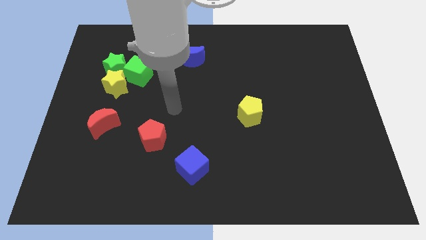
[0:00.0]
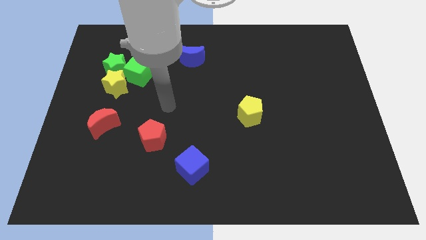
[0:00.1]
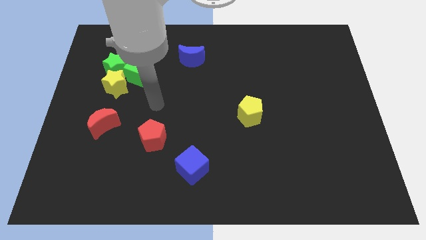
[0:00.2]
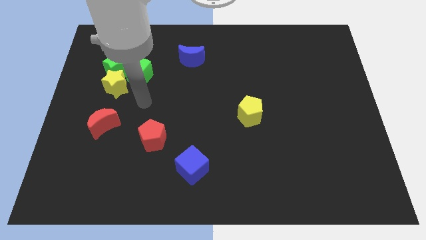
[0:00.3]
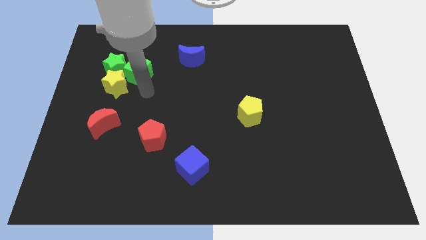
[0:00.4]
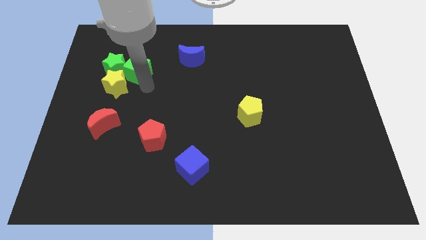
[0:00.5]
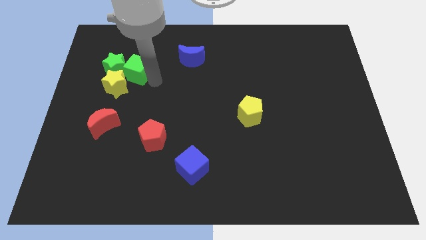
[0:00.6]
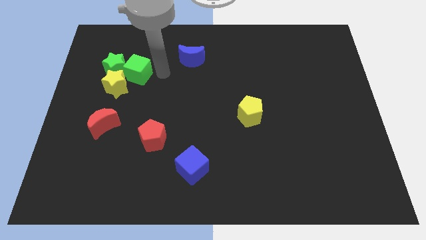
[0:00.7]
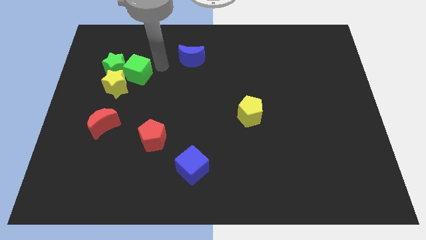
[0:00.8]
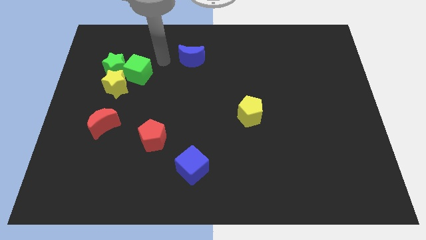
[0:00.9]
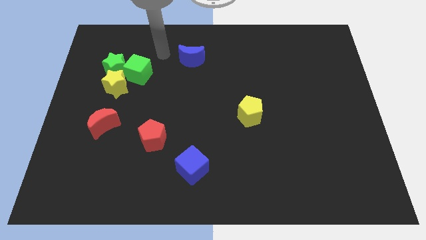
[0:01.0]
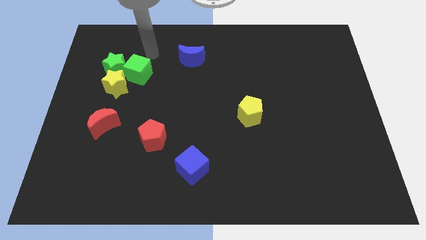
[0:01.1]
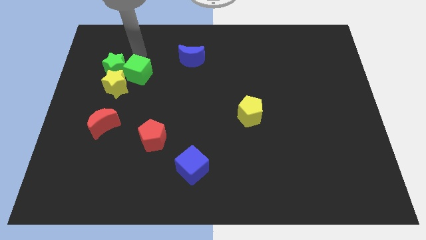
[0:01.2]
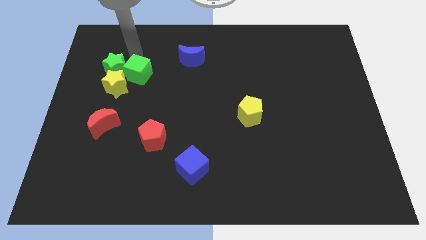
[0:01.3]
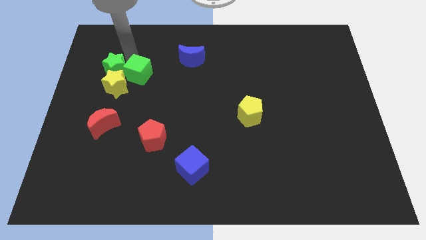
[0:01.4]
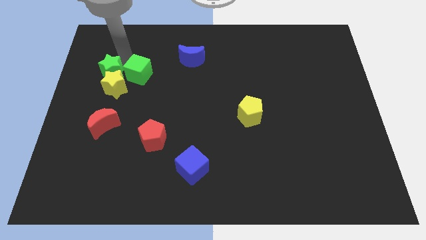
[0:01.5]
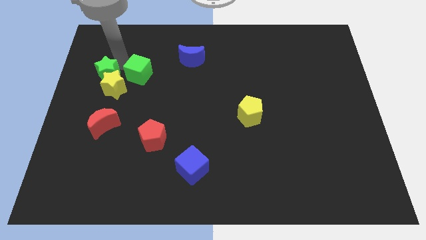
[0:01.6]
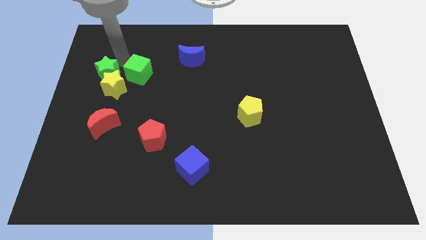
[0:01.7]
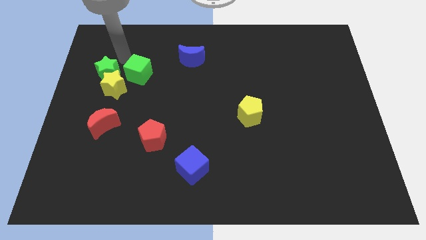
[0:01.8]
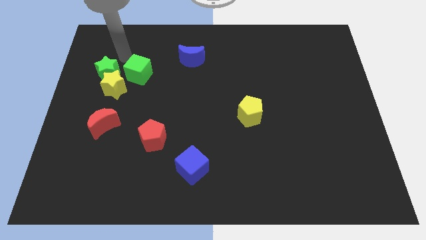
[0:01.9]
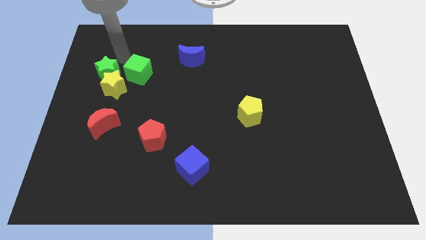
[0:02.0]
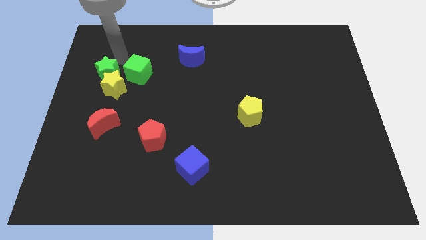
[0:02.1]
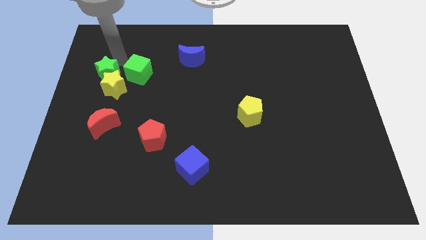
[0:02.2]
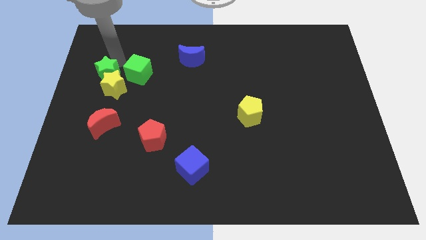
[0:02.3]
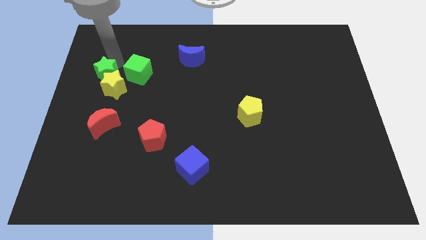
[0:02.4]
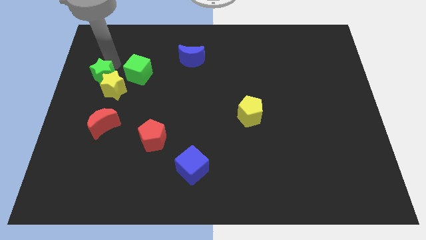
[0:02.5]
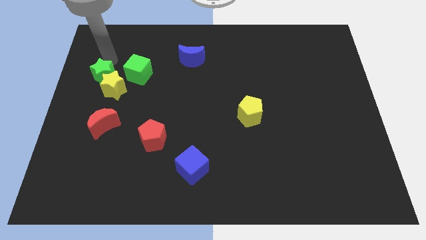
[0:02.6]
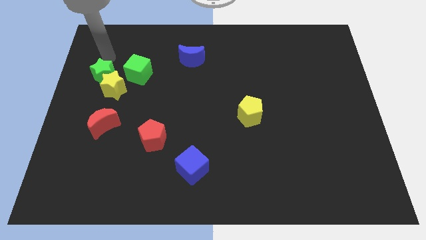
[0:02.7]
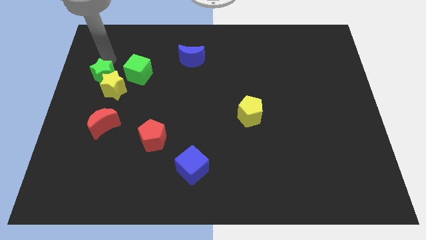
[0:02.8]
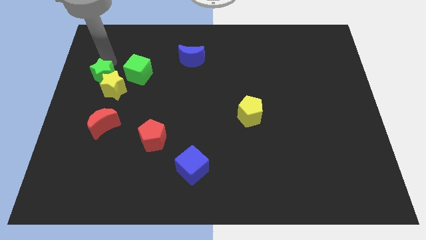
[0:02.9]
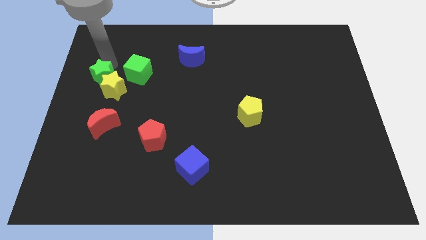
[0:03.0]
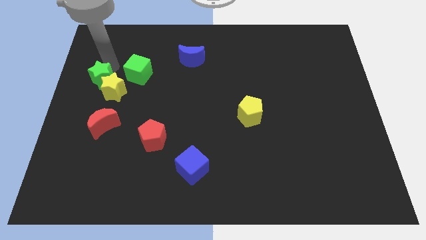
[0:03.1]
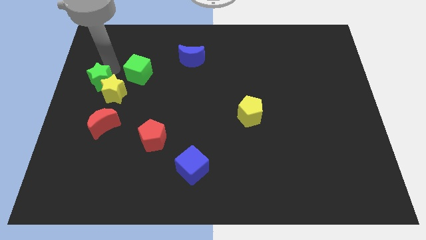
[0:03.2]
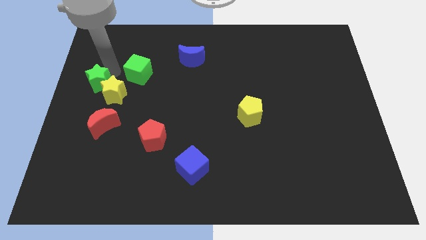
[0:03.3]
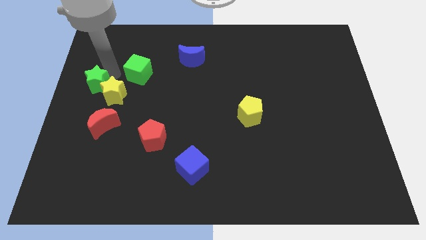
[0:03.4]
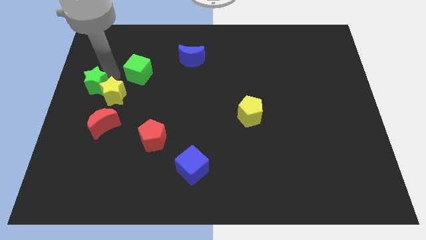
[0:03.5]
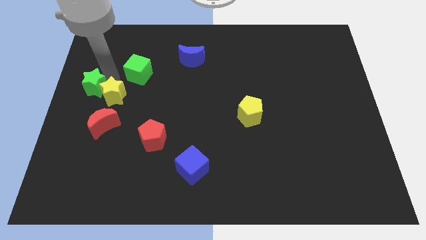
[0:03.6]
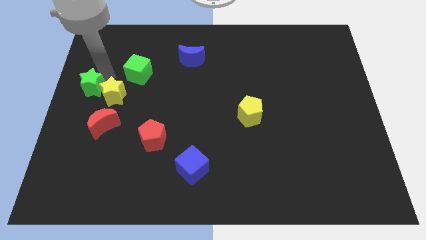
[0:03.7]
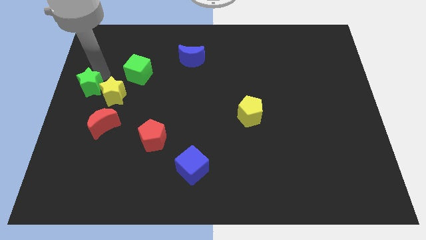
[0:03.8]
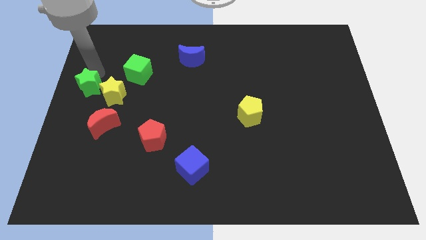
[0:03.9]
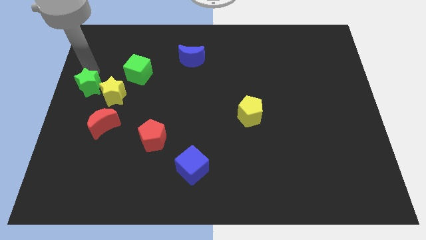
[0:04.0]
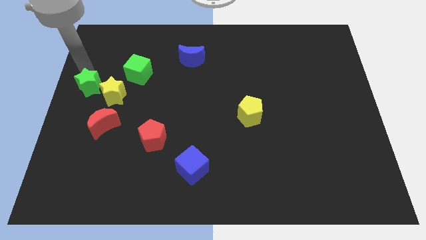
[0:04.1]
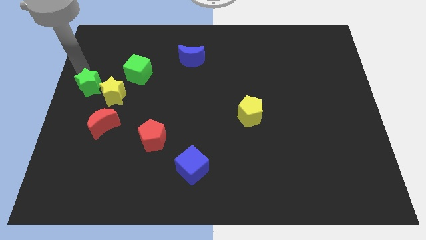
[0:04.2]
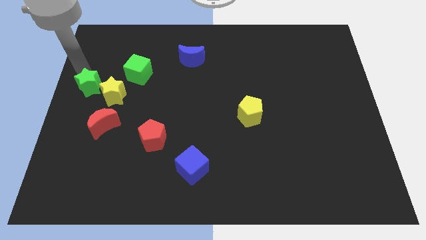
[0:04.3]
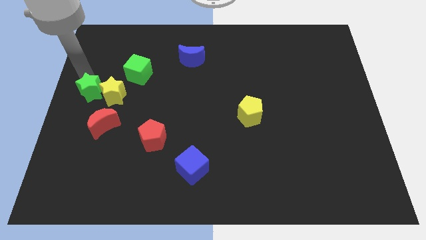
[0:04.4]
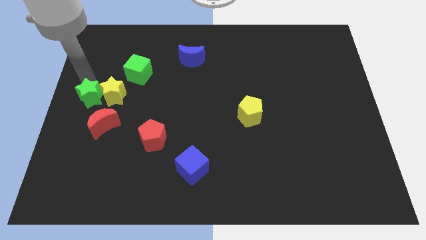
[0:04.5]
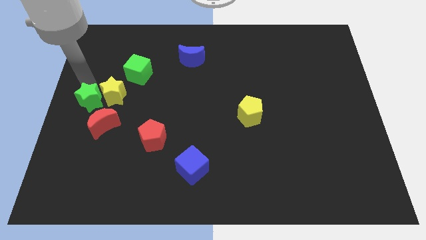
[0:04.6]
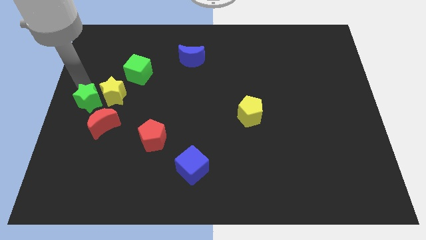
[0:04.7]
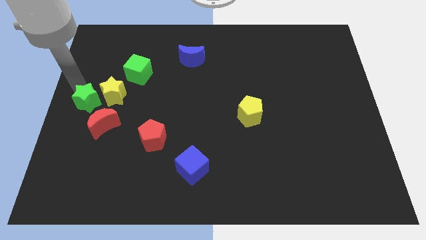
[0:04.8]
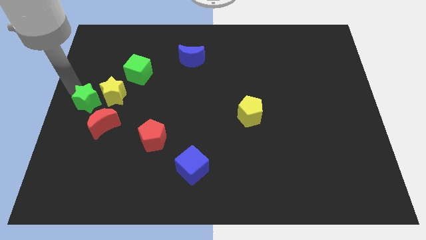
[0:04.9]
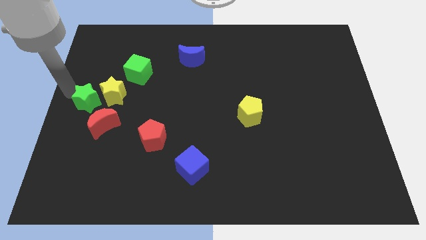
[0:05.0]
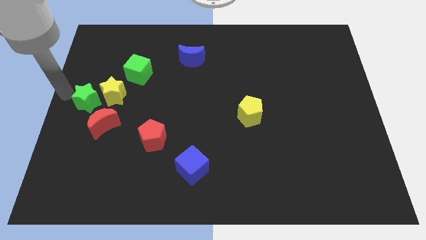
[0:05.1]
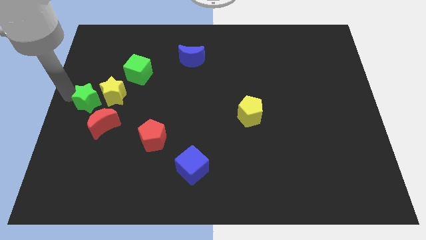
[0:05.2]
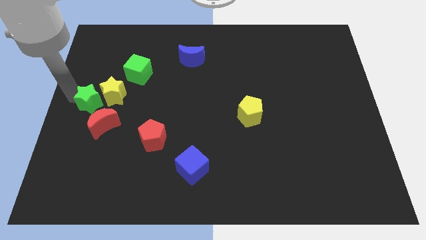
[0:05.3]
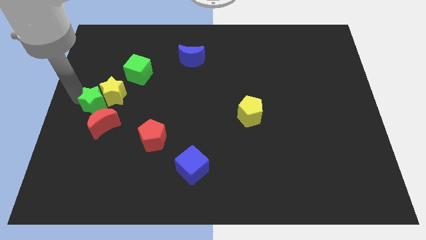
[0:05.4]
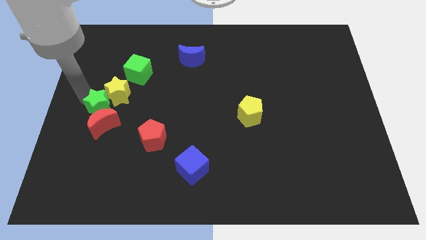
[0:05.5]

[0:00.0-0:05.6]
put the green star next to the red moon

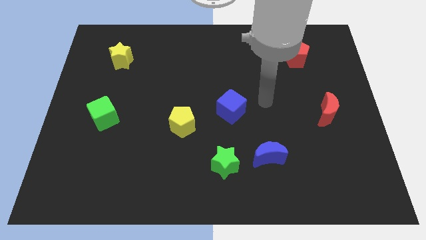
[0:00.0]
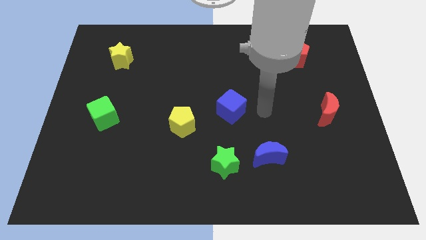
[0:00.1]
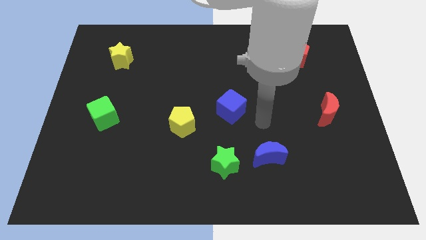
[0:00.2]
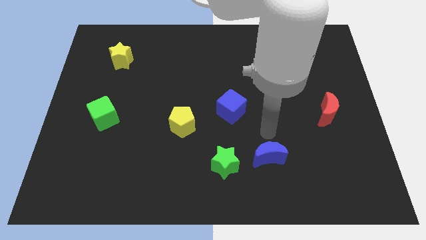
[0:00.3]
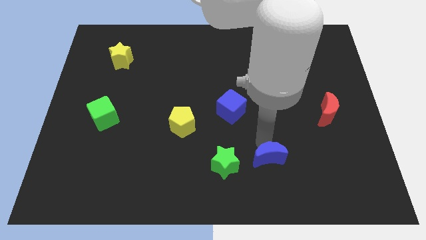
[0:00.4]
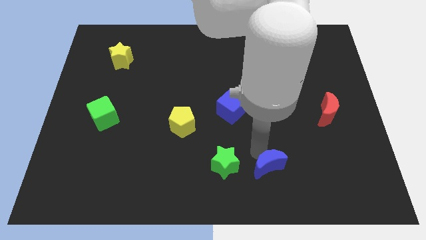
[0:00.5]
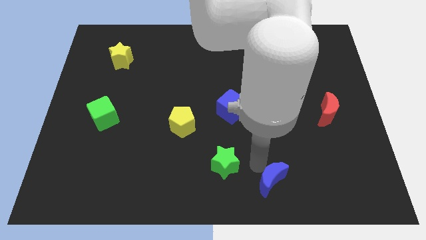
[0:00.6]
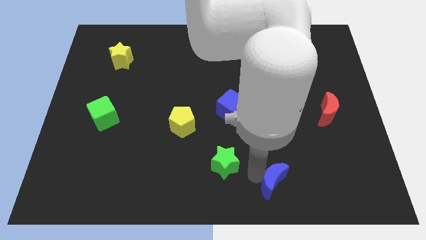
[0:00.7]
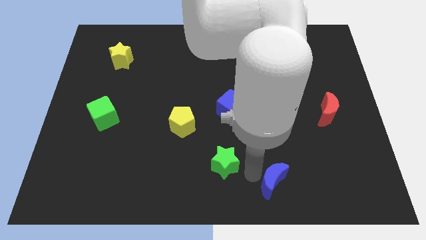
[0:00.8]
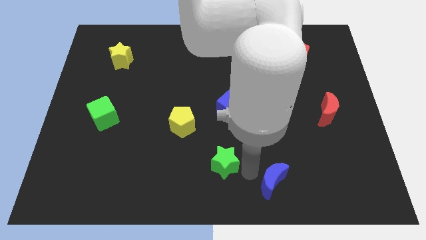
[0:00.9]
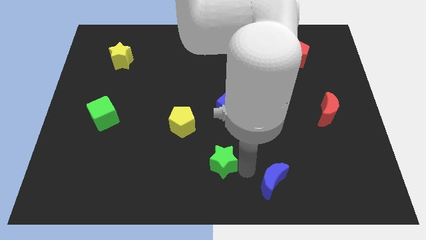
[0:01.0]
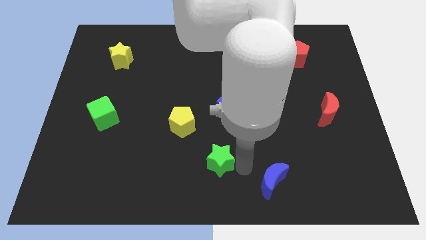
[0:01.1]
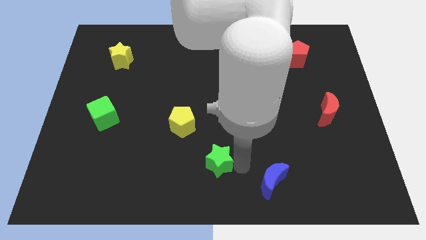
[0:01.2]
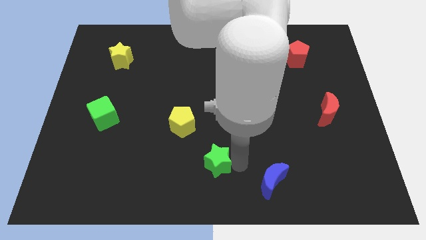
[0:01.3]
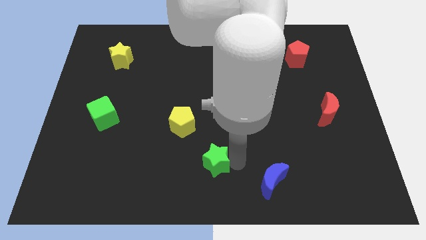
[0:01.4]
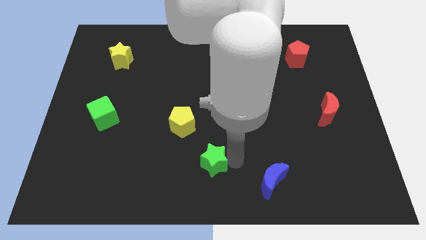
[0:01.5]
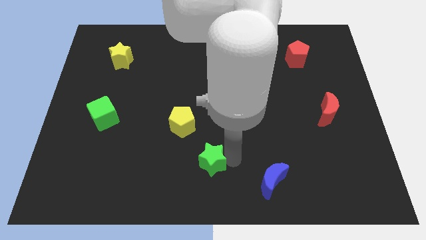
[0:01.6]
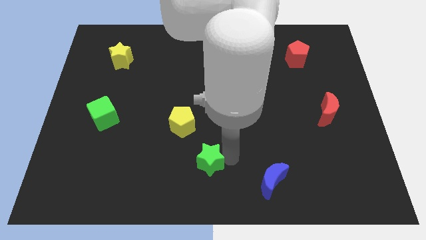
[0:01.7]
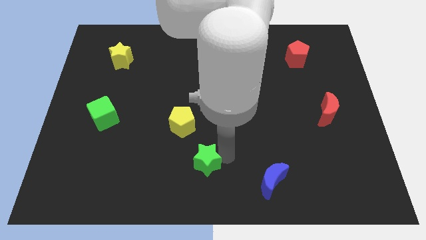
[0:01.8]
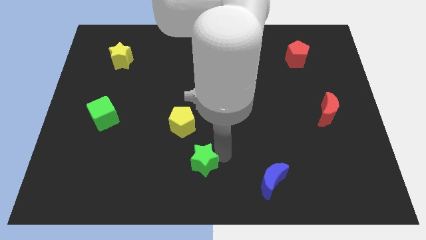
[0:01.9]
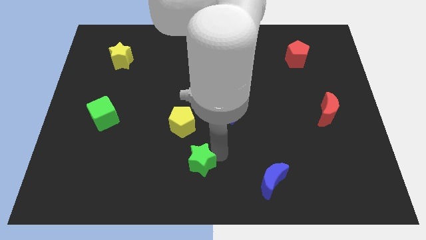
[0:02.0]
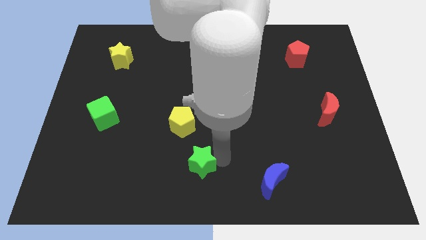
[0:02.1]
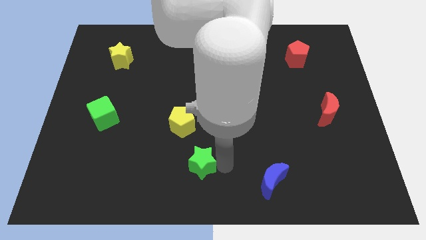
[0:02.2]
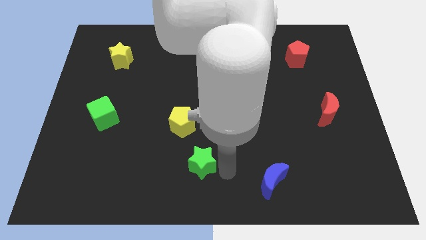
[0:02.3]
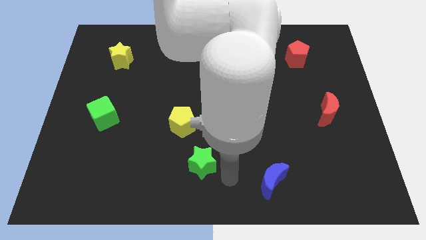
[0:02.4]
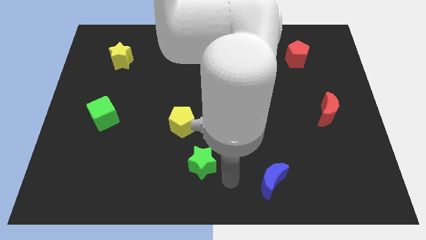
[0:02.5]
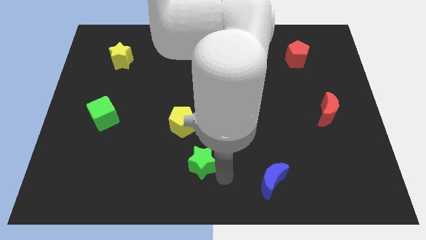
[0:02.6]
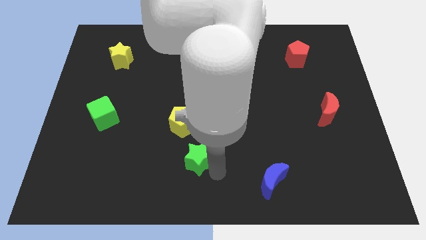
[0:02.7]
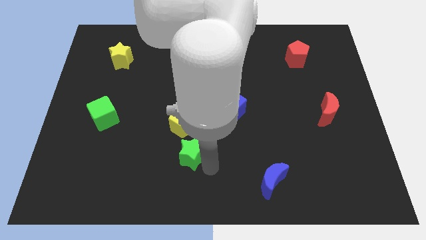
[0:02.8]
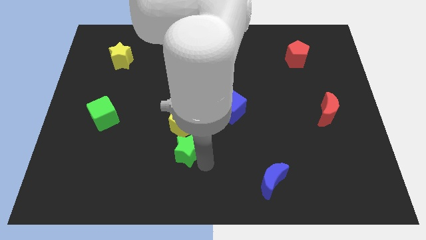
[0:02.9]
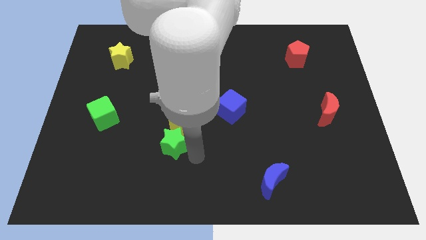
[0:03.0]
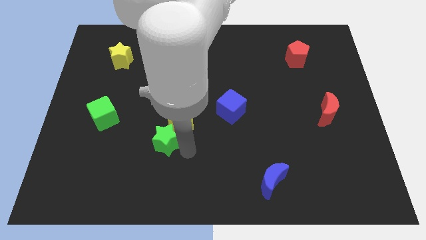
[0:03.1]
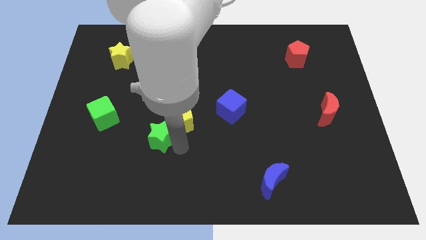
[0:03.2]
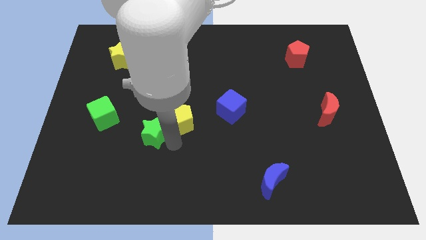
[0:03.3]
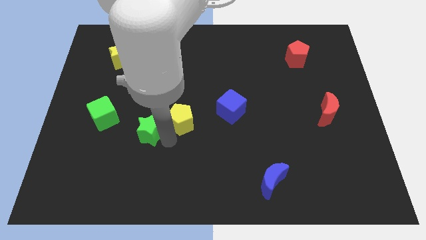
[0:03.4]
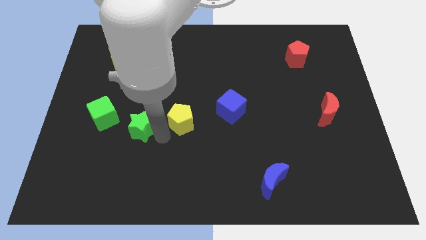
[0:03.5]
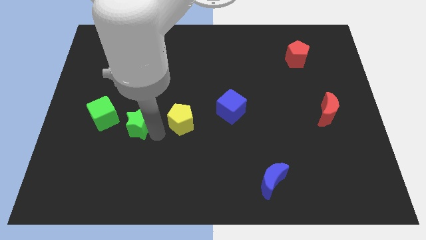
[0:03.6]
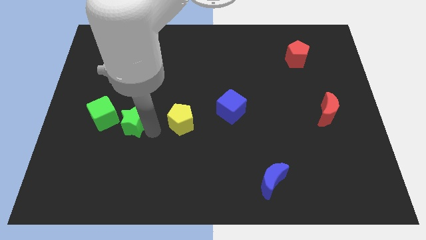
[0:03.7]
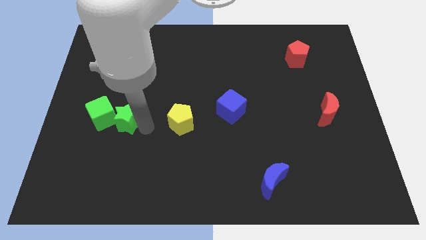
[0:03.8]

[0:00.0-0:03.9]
slide the green star to the green cube
